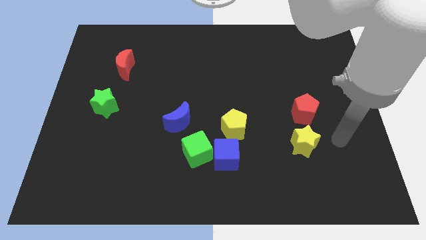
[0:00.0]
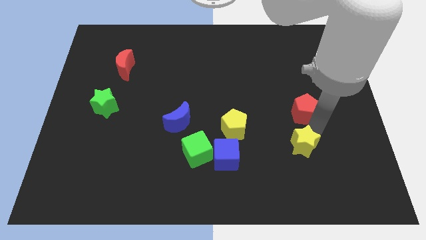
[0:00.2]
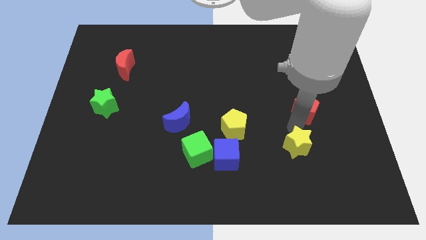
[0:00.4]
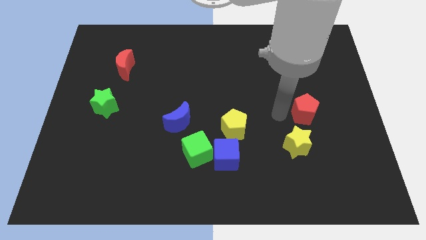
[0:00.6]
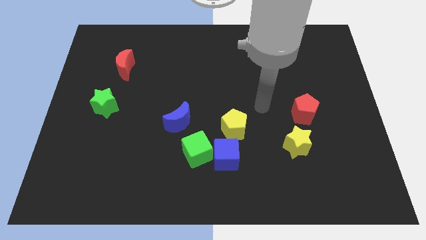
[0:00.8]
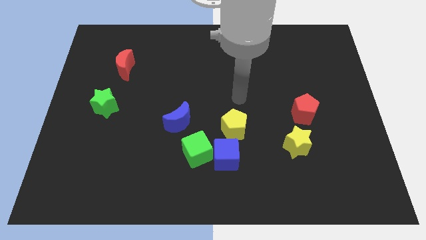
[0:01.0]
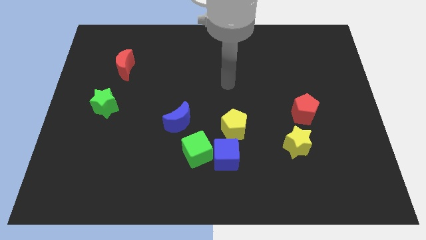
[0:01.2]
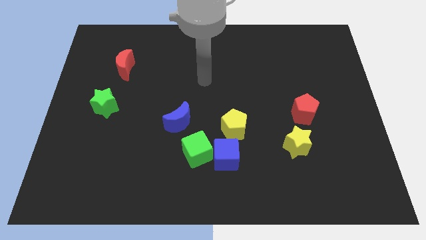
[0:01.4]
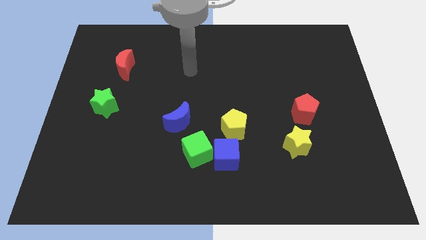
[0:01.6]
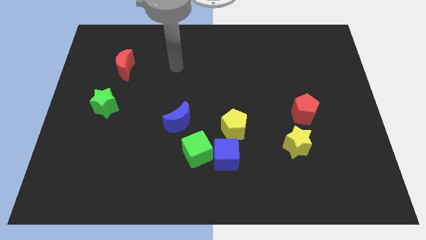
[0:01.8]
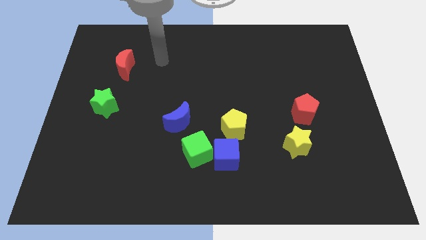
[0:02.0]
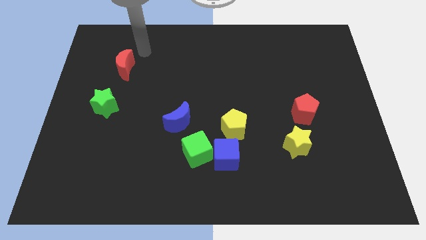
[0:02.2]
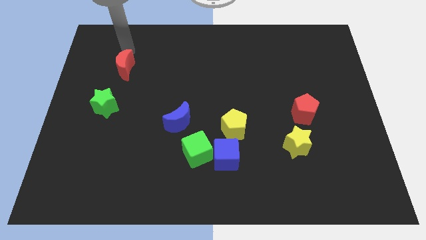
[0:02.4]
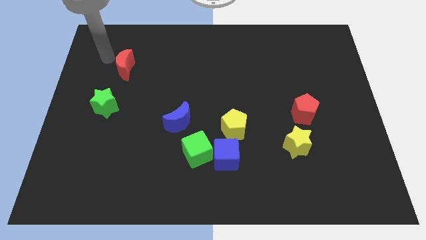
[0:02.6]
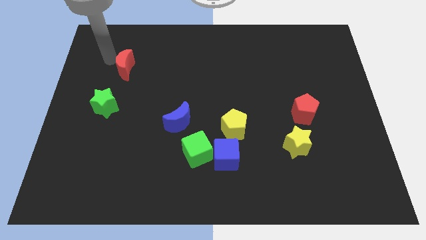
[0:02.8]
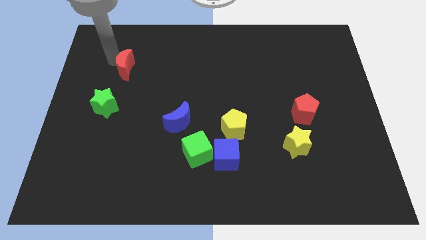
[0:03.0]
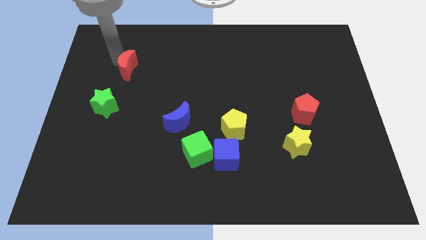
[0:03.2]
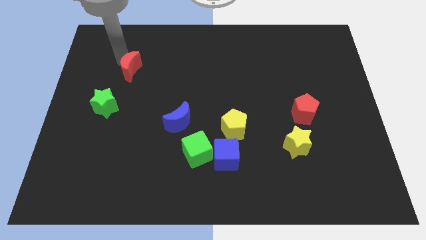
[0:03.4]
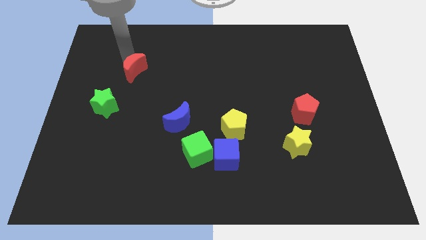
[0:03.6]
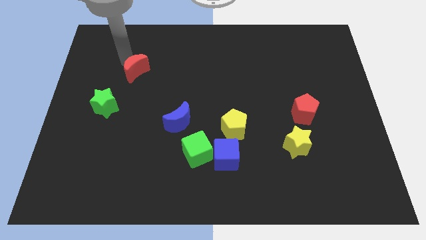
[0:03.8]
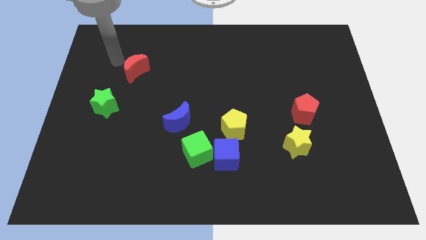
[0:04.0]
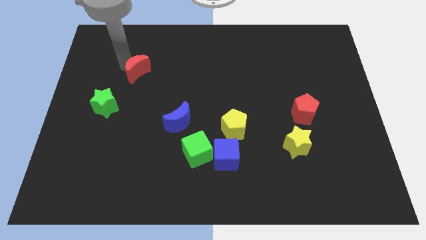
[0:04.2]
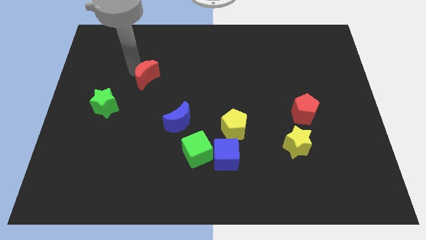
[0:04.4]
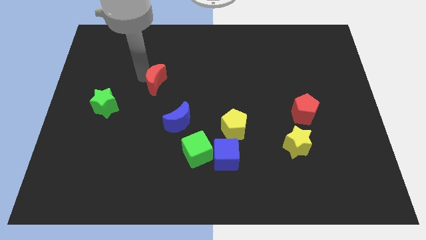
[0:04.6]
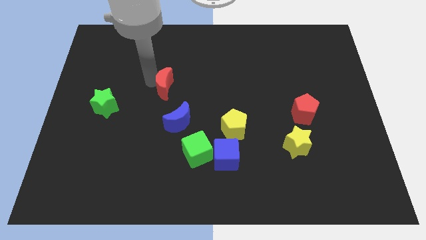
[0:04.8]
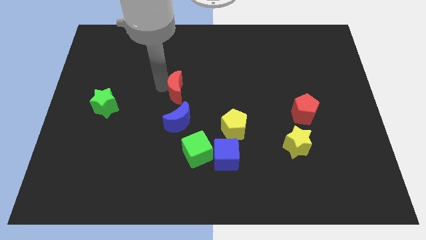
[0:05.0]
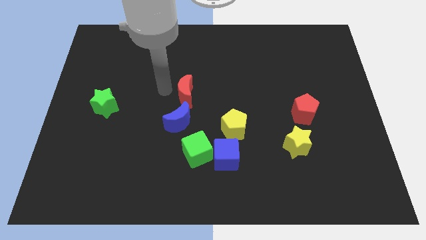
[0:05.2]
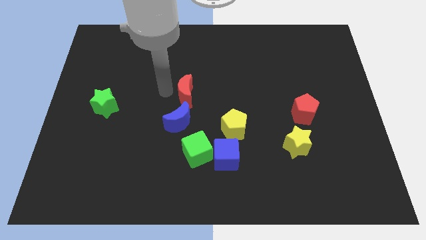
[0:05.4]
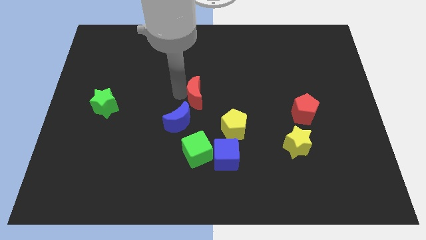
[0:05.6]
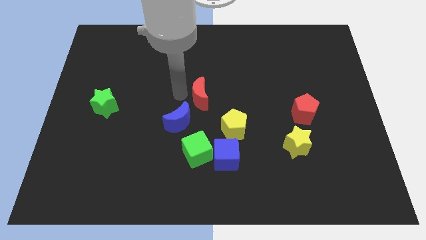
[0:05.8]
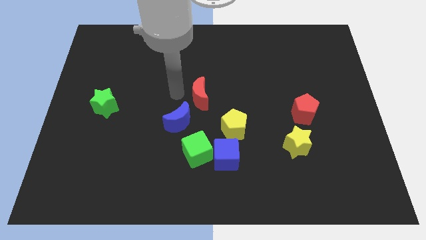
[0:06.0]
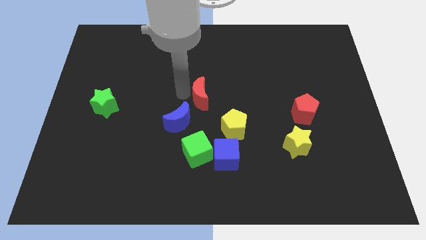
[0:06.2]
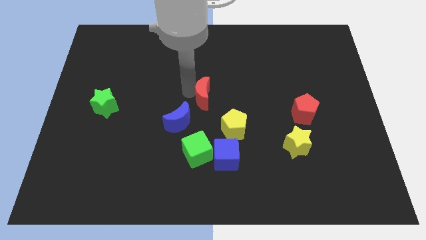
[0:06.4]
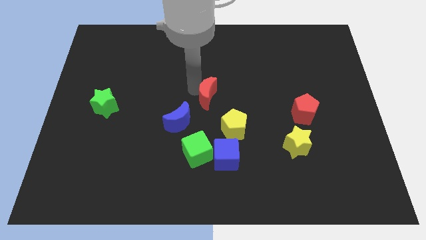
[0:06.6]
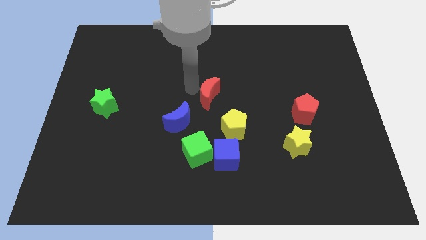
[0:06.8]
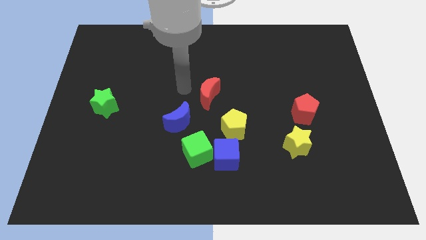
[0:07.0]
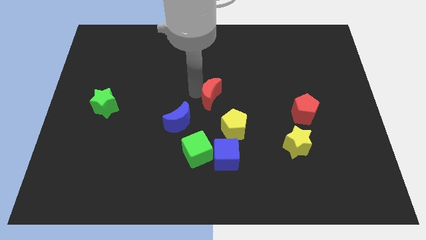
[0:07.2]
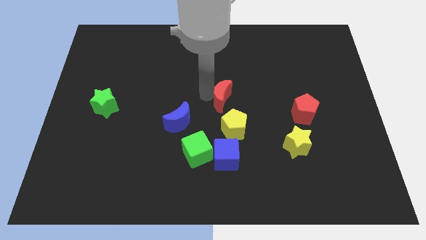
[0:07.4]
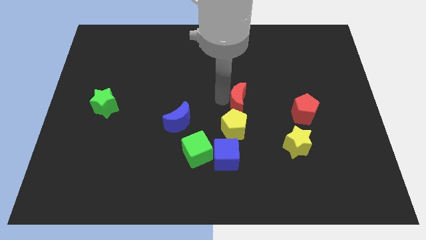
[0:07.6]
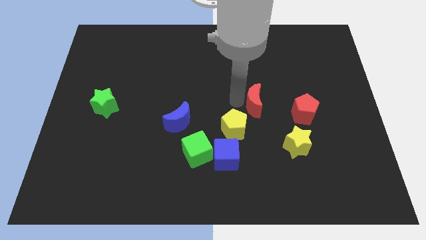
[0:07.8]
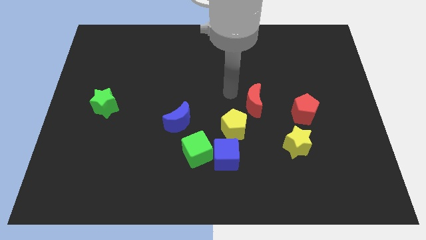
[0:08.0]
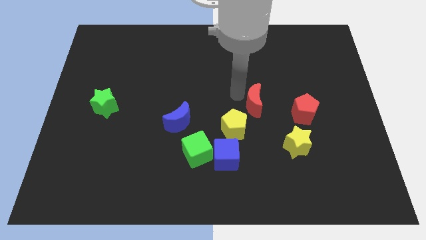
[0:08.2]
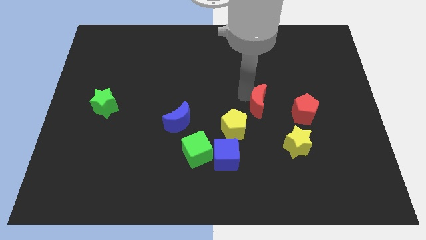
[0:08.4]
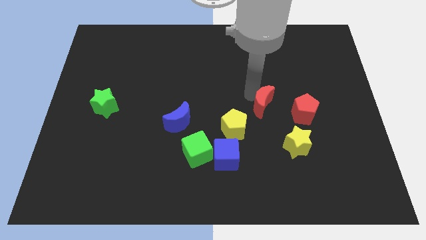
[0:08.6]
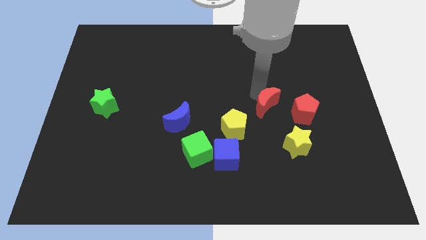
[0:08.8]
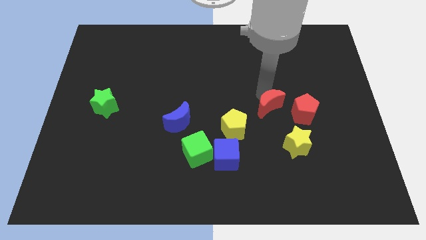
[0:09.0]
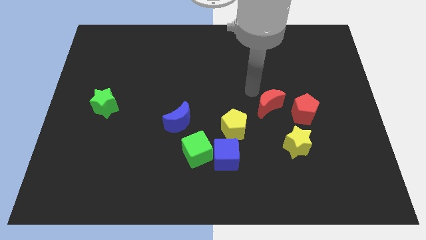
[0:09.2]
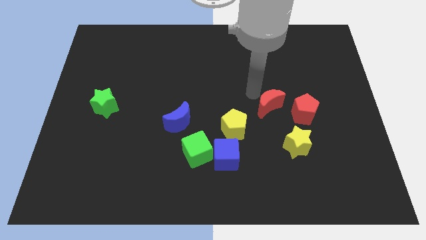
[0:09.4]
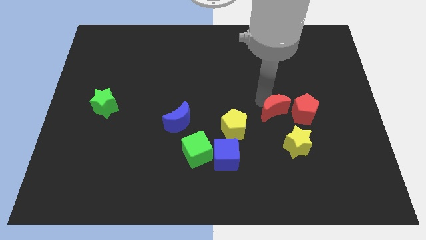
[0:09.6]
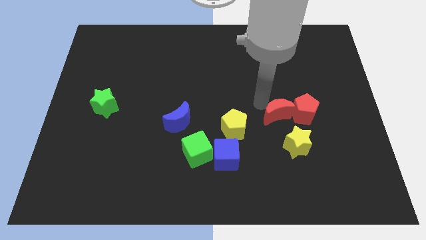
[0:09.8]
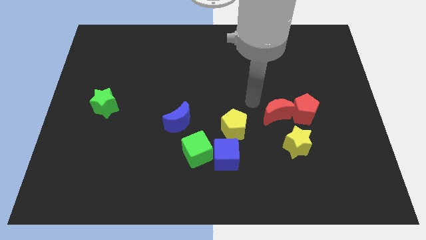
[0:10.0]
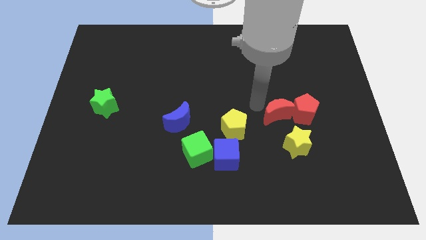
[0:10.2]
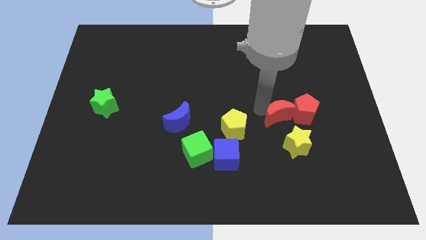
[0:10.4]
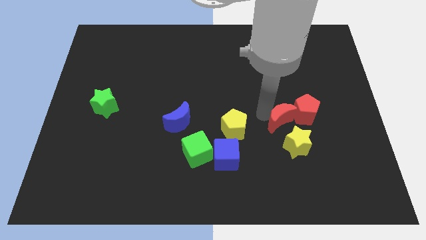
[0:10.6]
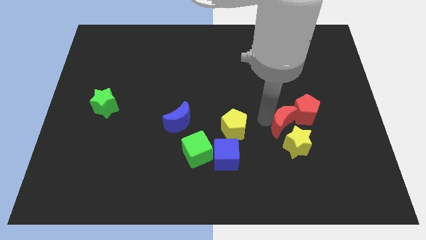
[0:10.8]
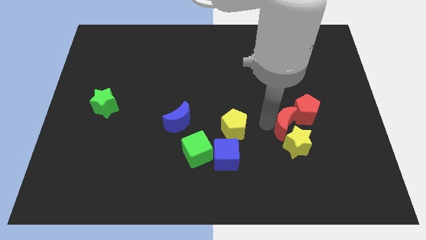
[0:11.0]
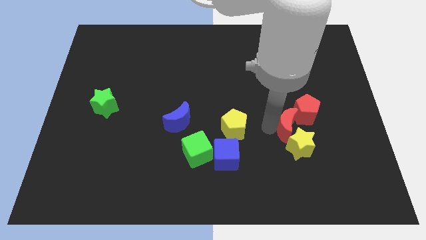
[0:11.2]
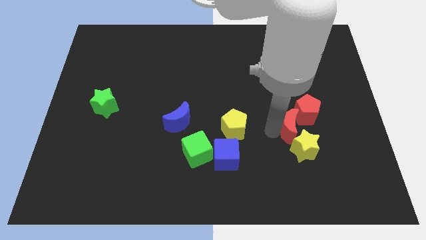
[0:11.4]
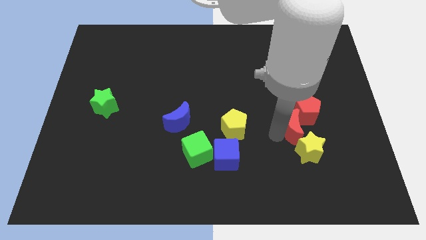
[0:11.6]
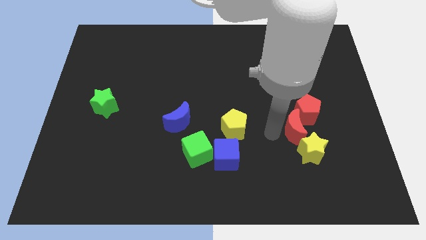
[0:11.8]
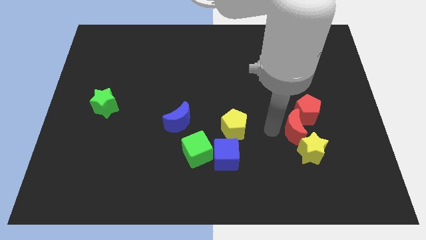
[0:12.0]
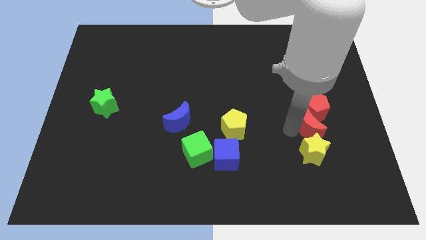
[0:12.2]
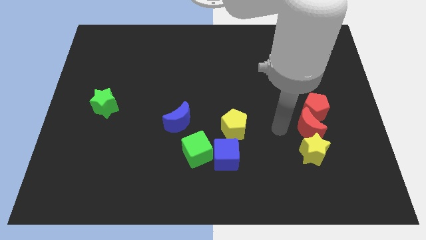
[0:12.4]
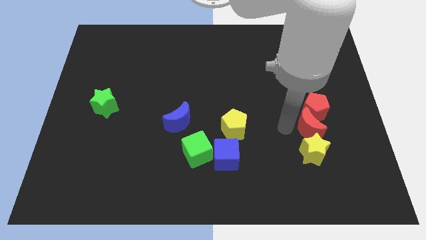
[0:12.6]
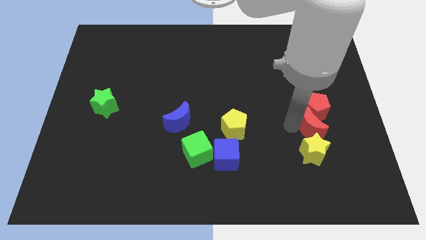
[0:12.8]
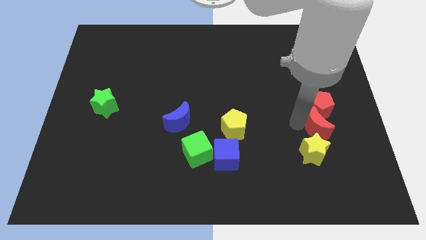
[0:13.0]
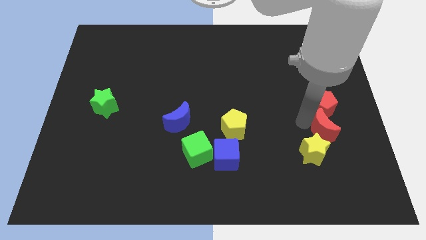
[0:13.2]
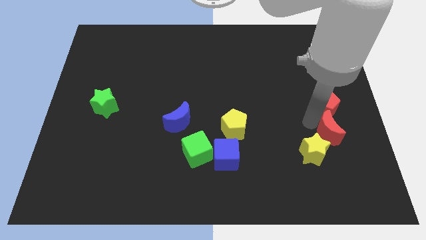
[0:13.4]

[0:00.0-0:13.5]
move the red moon diagonally down and to the right of the red pentagon
